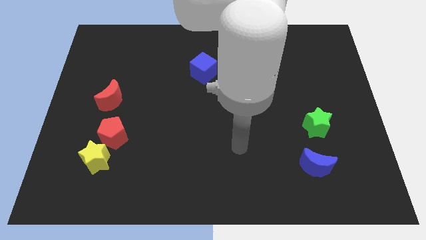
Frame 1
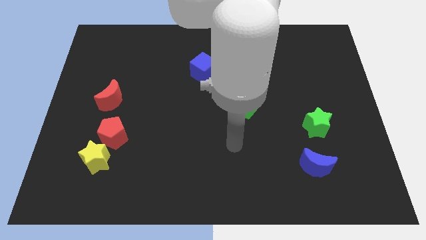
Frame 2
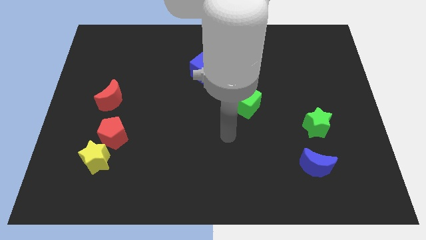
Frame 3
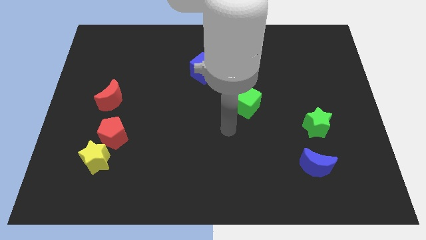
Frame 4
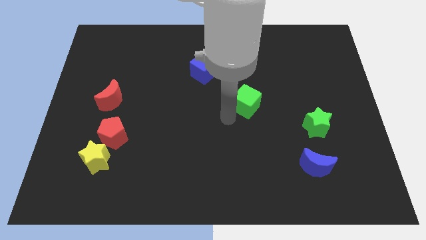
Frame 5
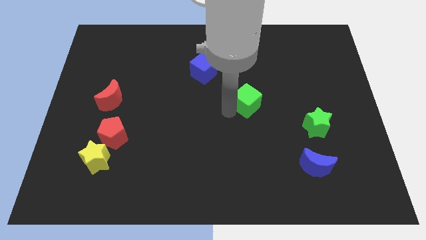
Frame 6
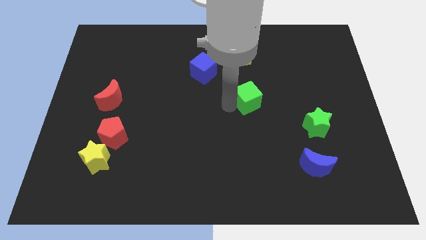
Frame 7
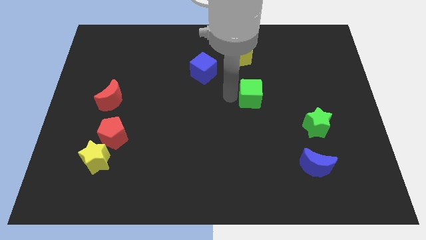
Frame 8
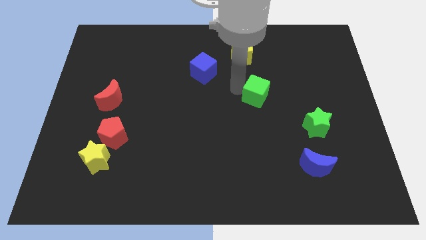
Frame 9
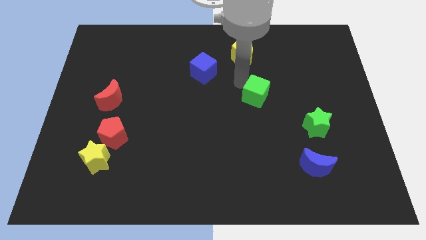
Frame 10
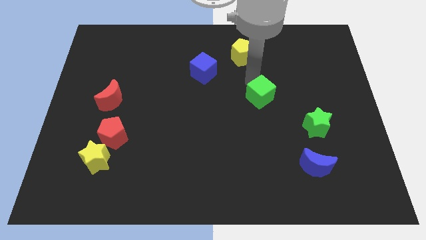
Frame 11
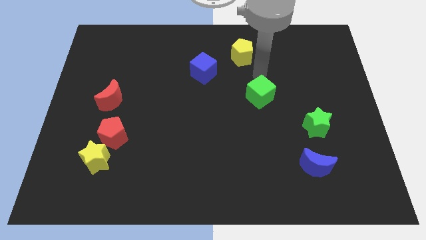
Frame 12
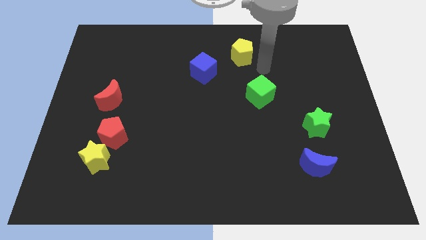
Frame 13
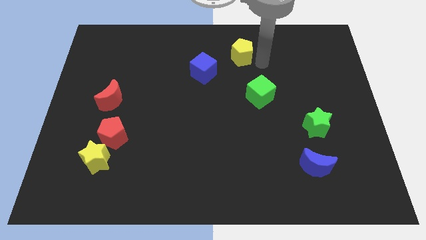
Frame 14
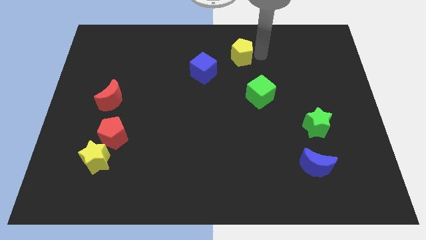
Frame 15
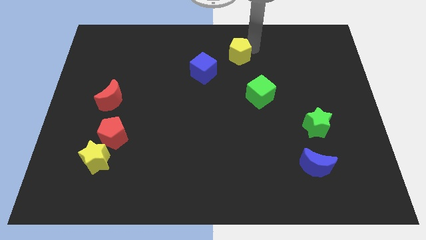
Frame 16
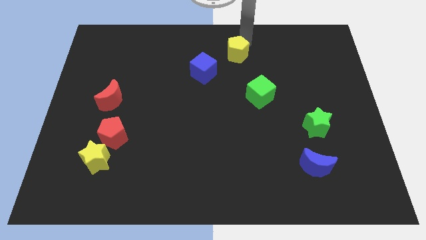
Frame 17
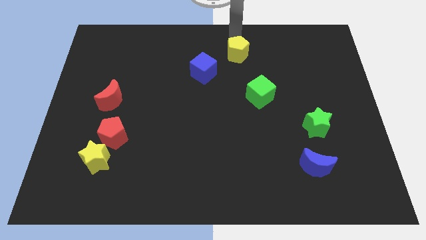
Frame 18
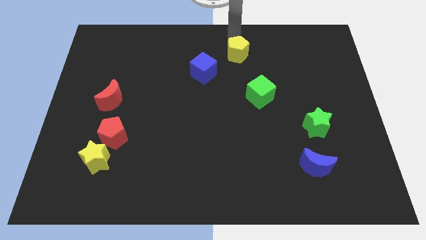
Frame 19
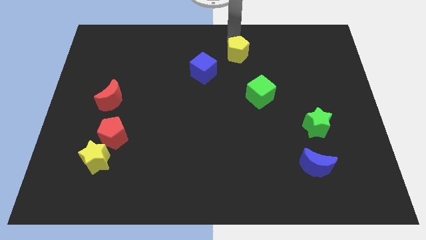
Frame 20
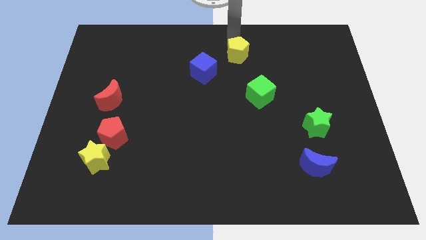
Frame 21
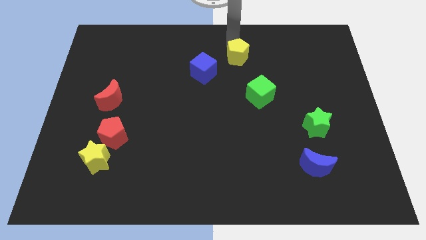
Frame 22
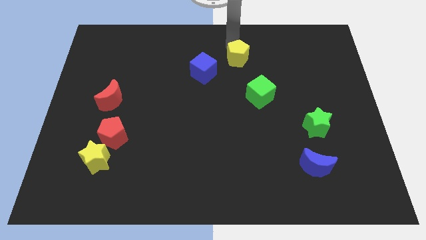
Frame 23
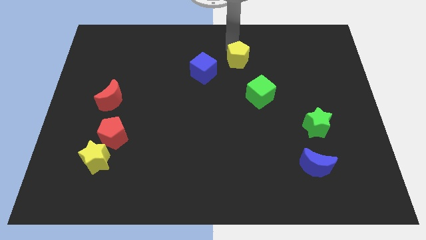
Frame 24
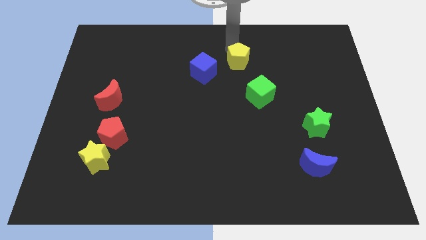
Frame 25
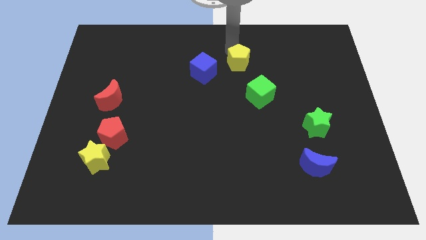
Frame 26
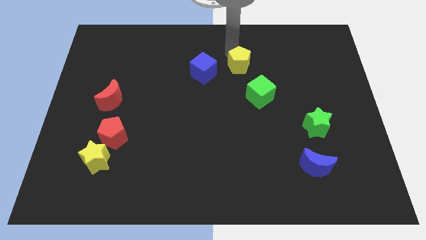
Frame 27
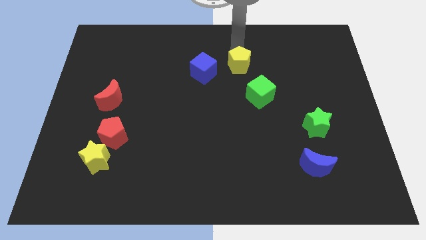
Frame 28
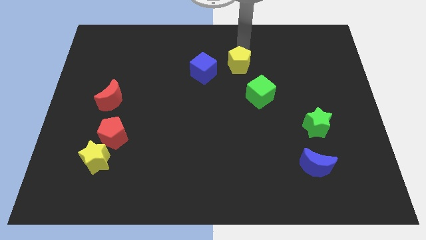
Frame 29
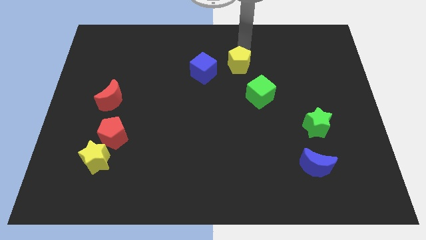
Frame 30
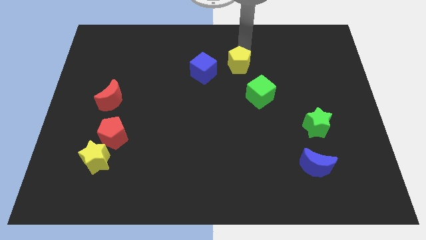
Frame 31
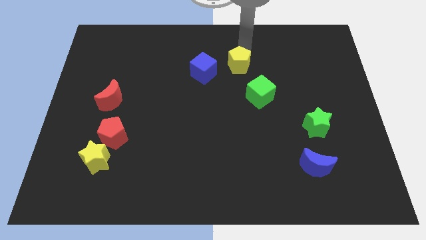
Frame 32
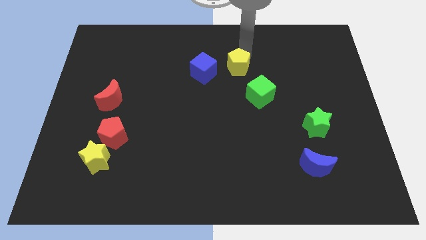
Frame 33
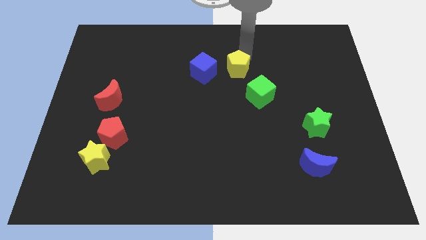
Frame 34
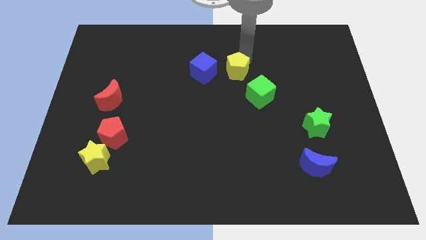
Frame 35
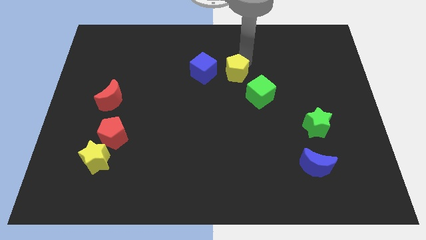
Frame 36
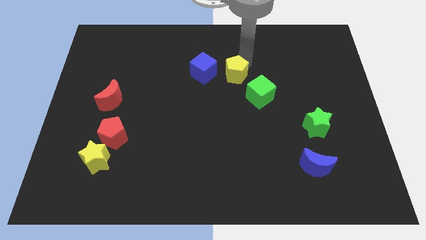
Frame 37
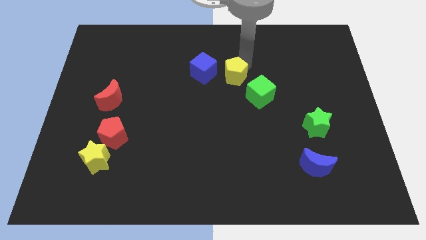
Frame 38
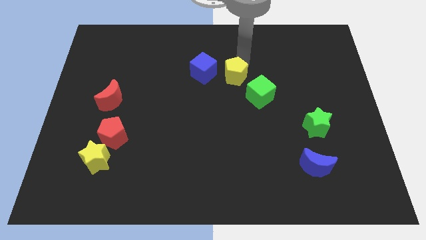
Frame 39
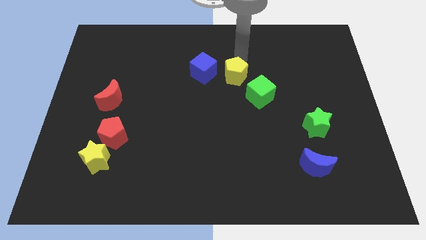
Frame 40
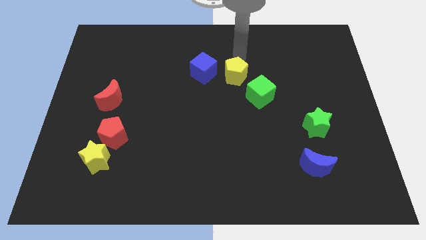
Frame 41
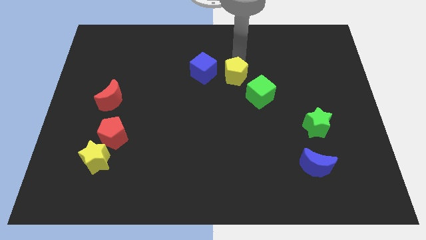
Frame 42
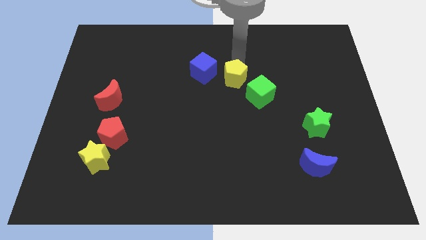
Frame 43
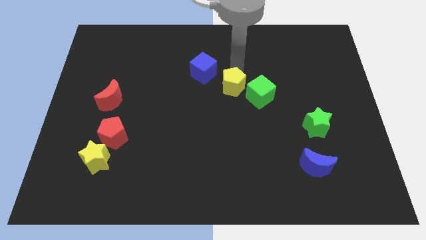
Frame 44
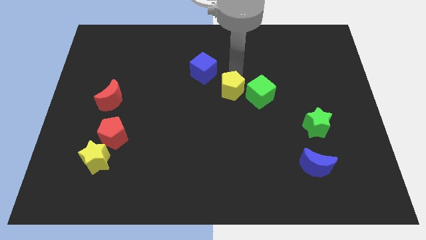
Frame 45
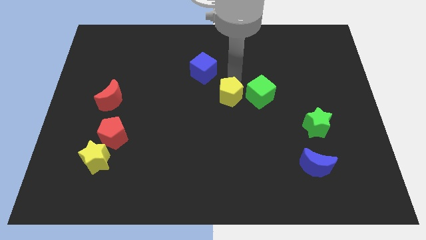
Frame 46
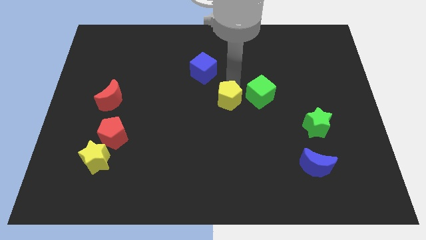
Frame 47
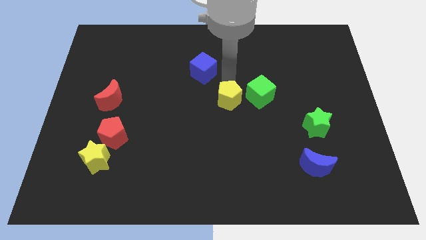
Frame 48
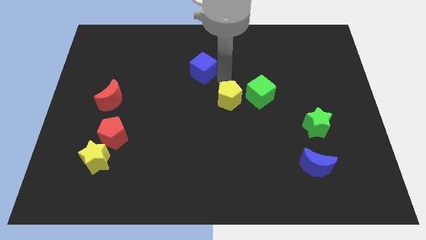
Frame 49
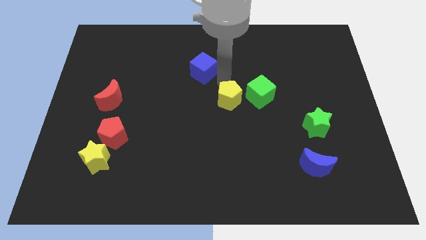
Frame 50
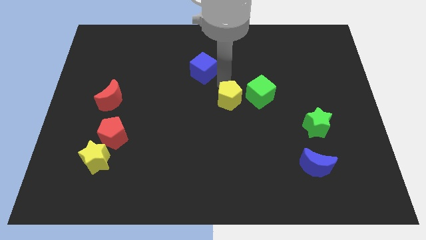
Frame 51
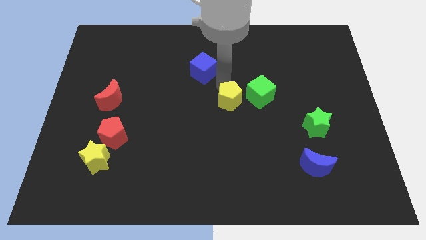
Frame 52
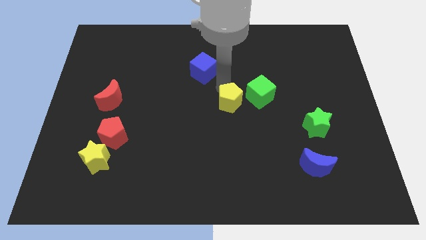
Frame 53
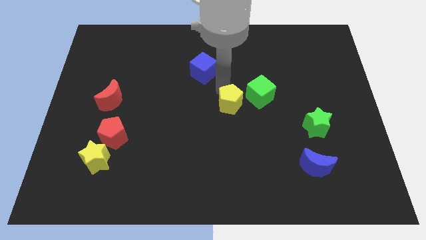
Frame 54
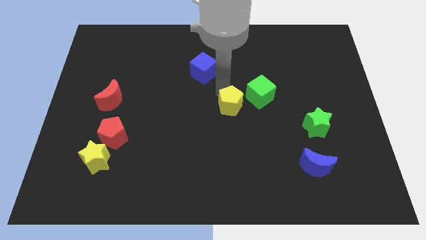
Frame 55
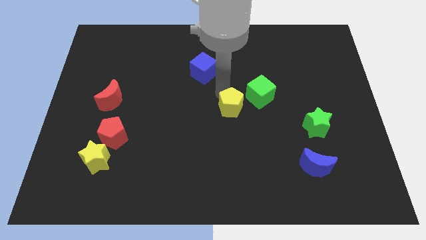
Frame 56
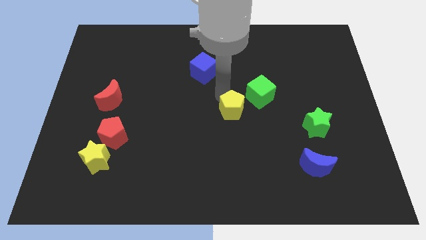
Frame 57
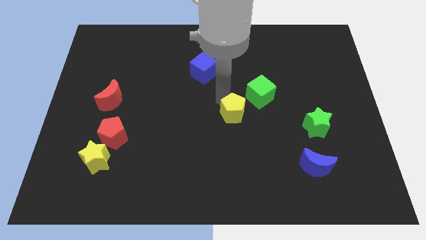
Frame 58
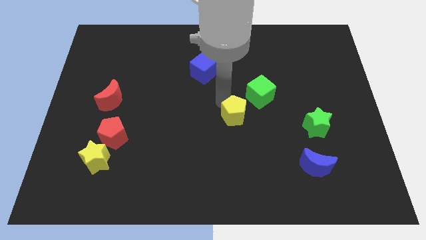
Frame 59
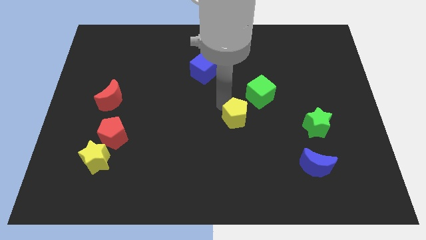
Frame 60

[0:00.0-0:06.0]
slide the yellow pentagon down

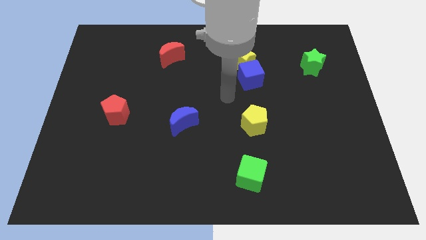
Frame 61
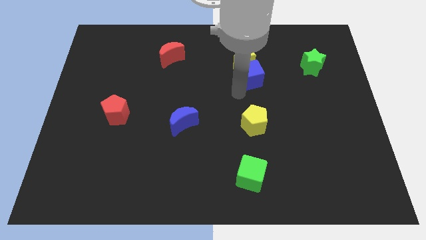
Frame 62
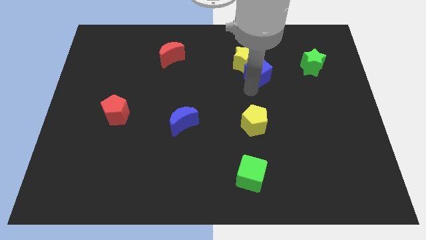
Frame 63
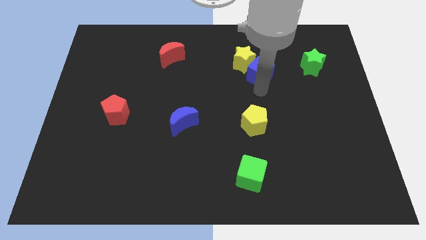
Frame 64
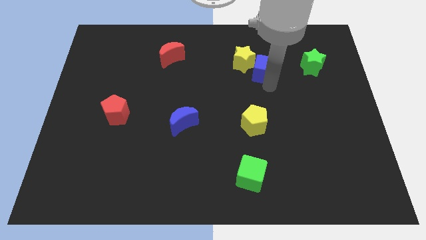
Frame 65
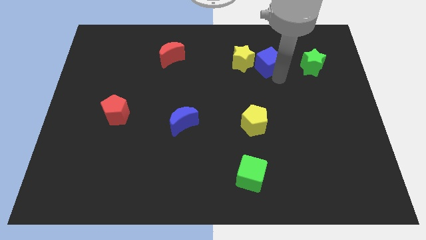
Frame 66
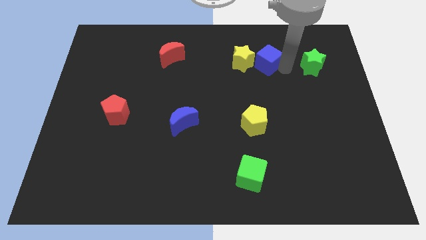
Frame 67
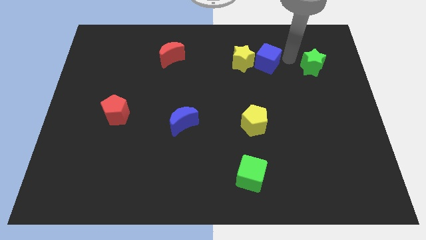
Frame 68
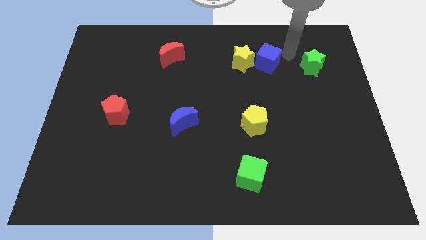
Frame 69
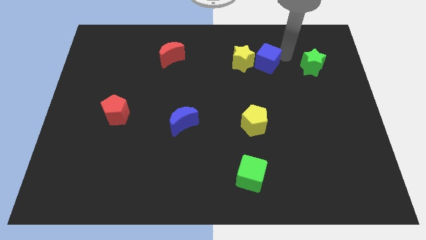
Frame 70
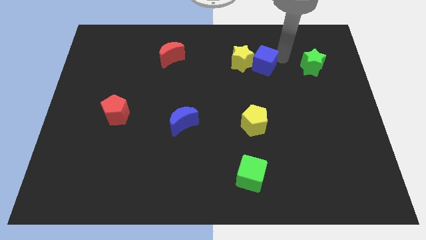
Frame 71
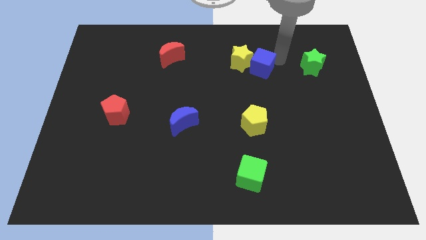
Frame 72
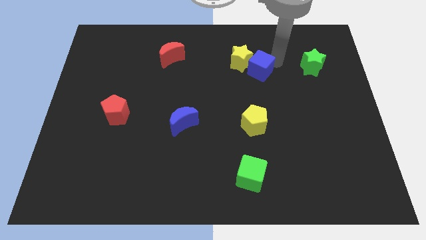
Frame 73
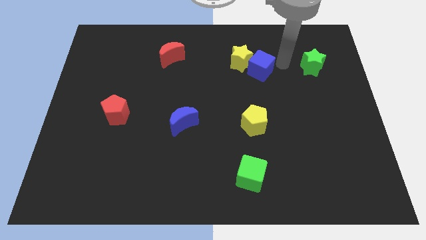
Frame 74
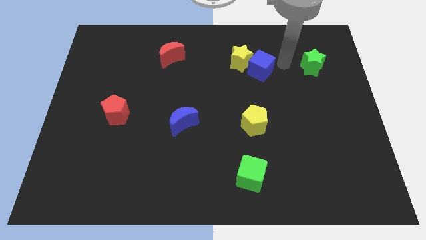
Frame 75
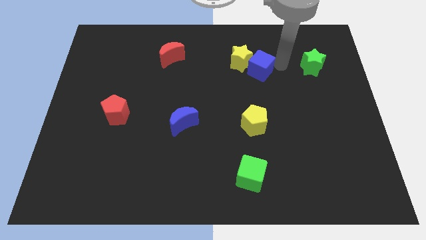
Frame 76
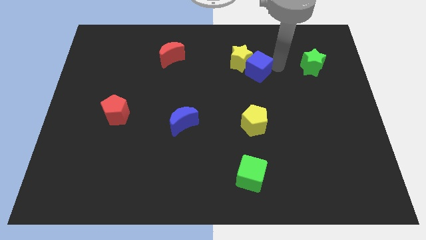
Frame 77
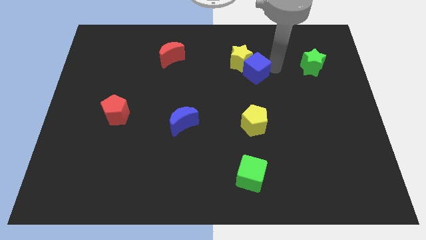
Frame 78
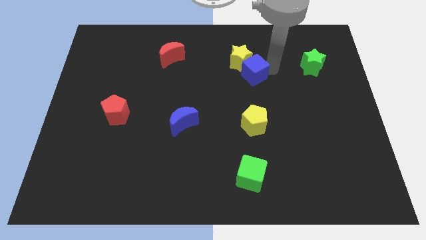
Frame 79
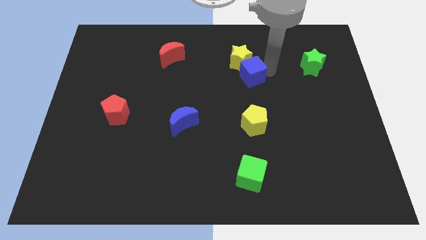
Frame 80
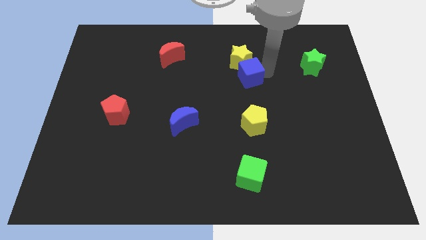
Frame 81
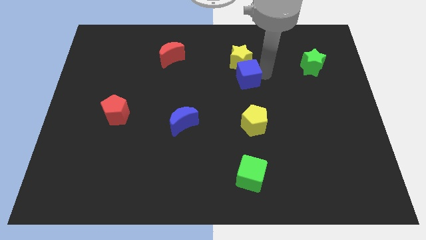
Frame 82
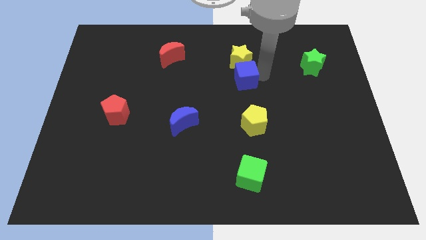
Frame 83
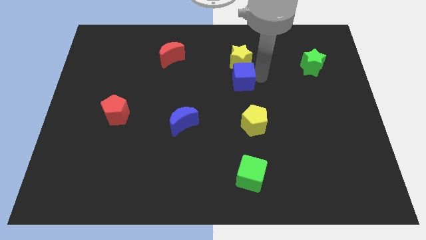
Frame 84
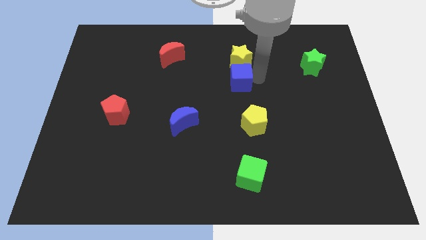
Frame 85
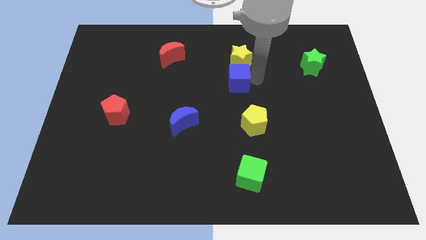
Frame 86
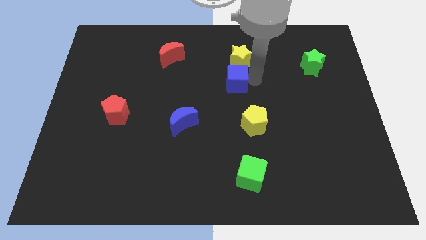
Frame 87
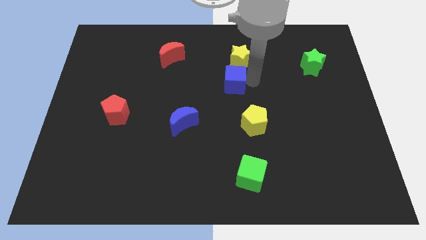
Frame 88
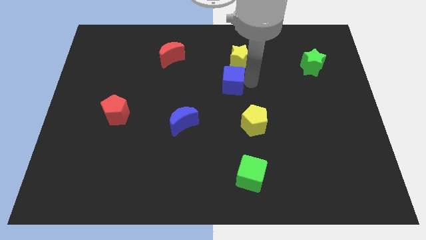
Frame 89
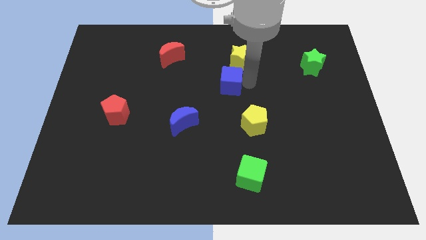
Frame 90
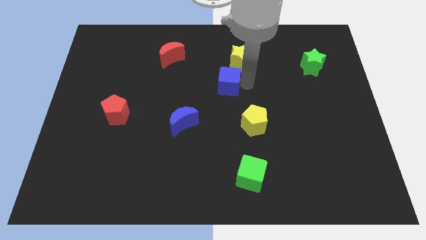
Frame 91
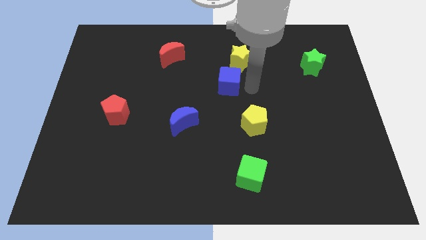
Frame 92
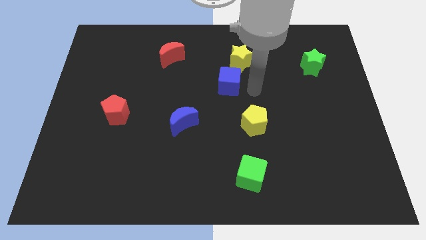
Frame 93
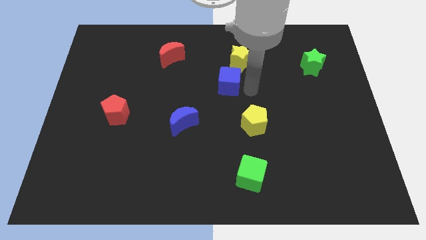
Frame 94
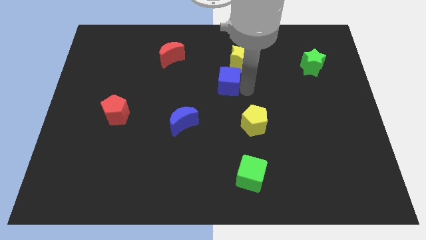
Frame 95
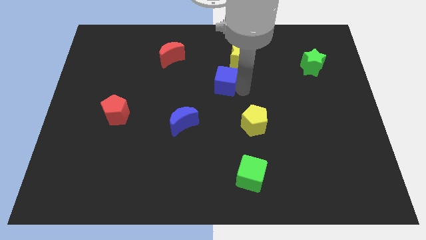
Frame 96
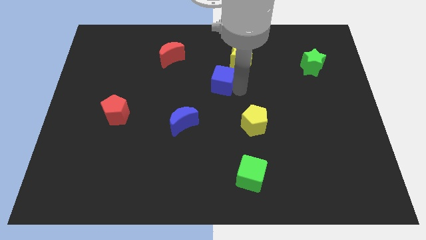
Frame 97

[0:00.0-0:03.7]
slightly slide the blue cube left
